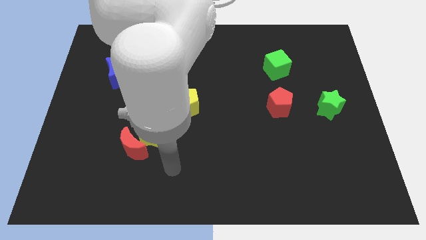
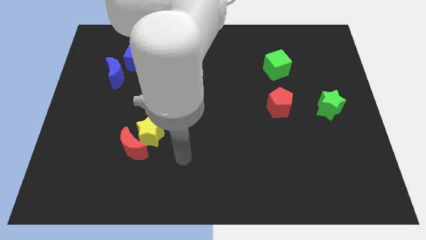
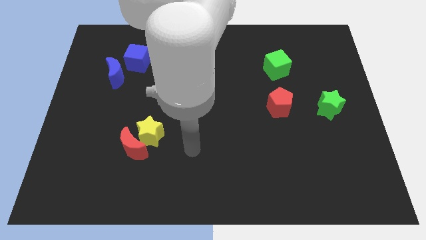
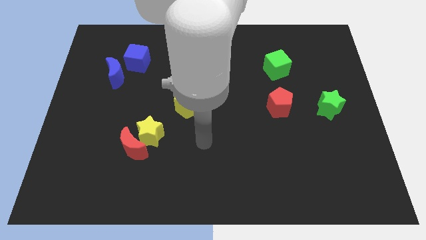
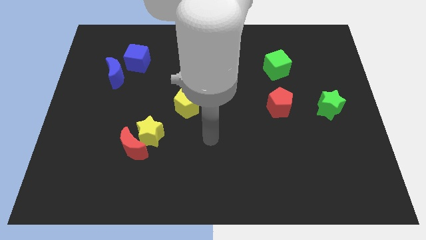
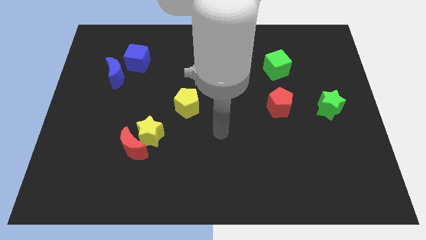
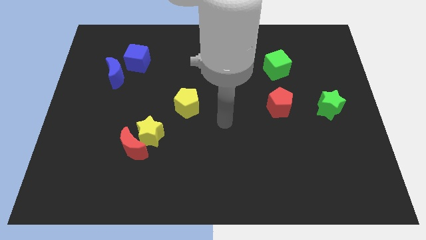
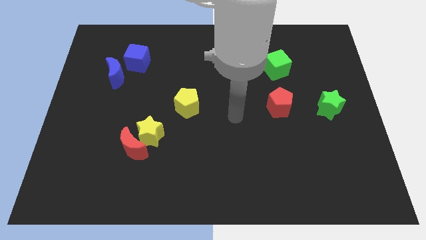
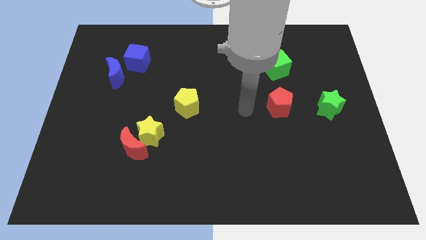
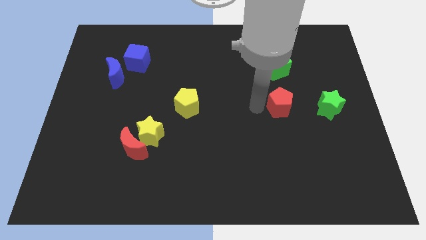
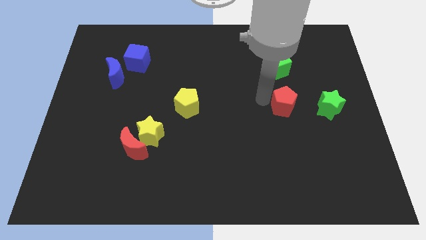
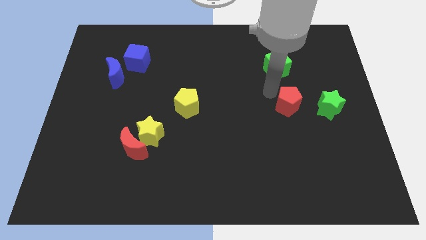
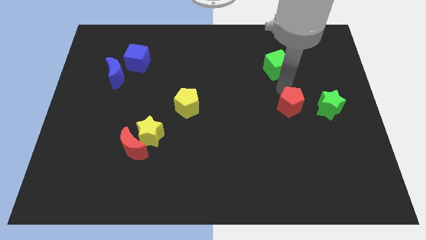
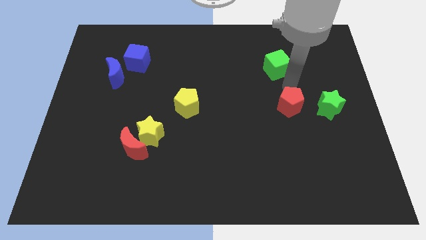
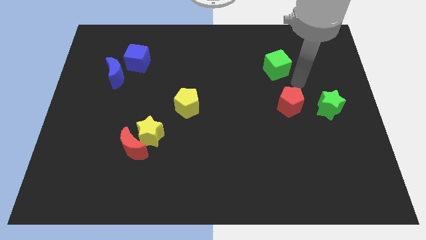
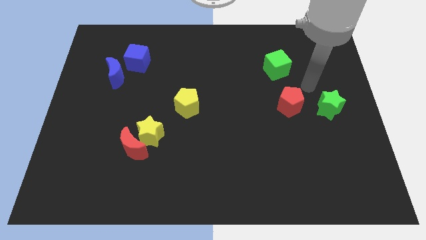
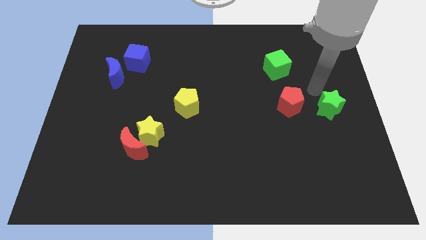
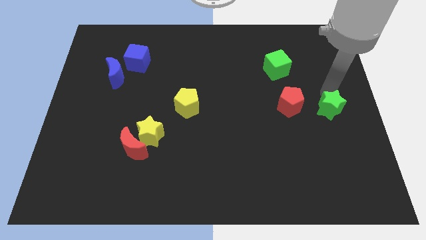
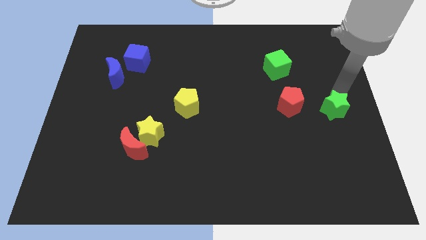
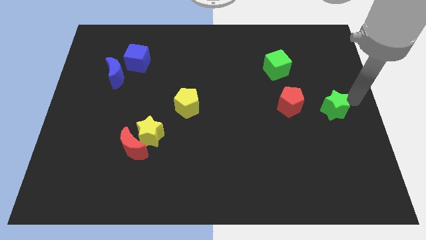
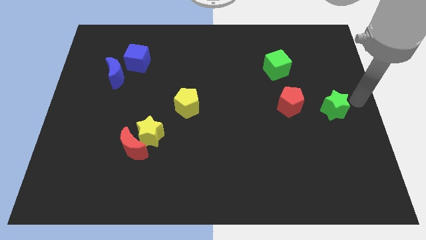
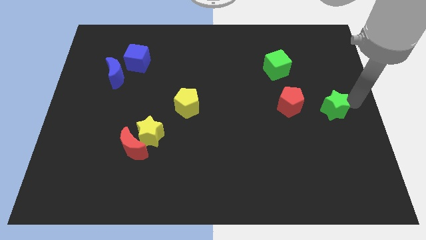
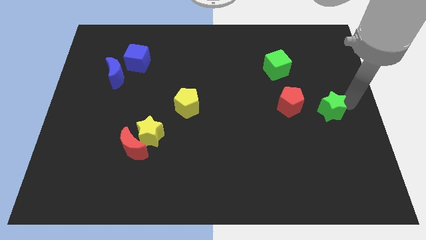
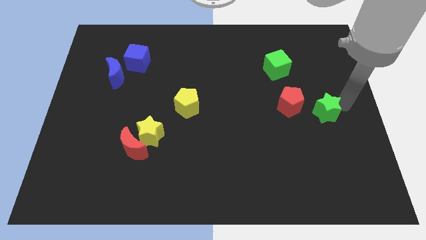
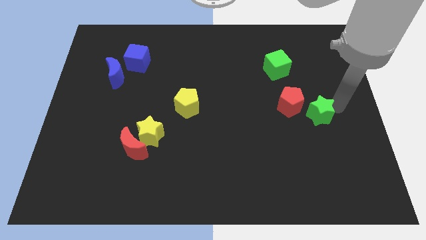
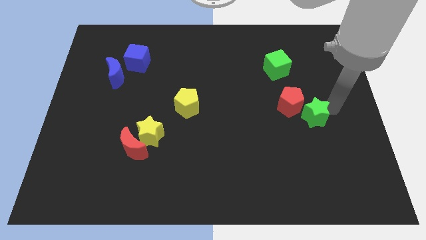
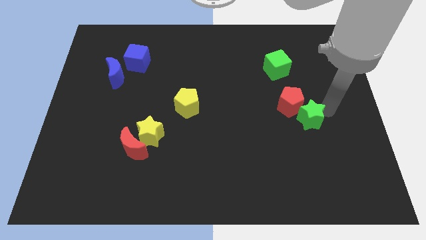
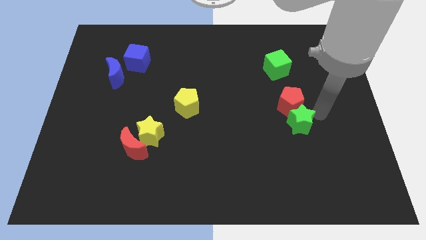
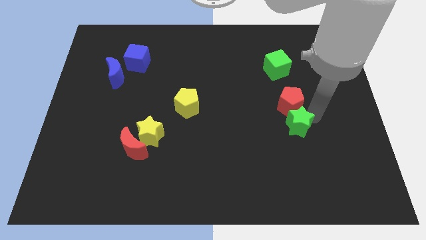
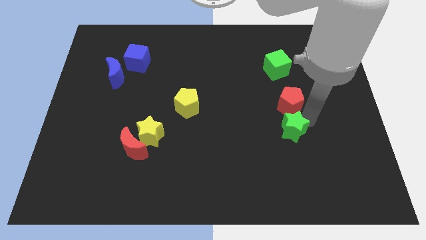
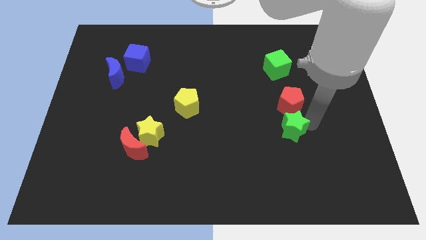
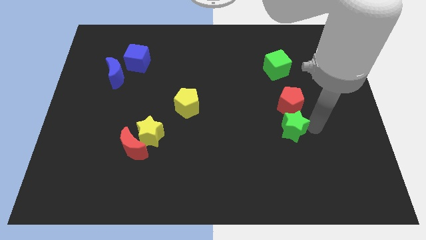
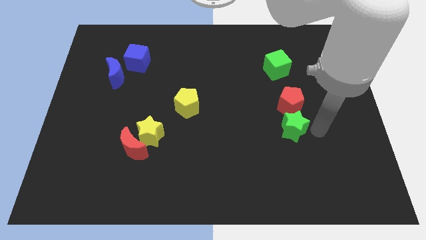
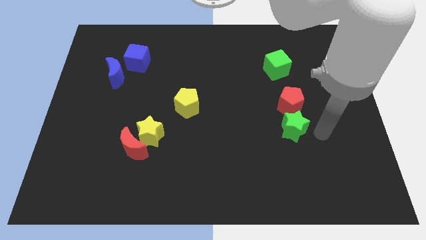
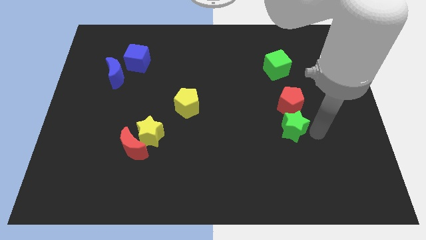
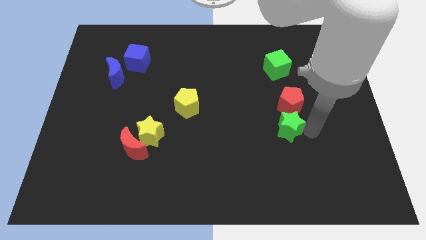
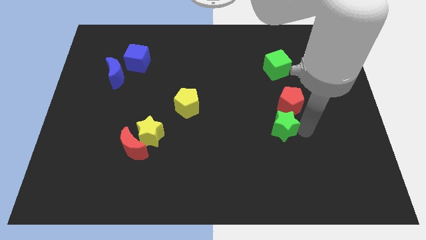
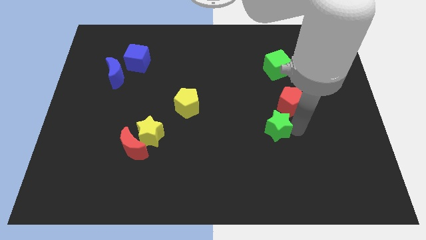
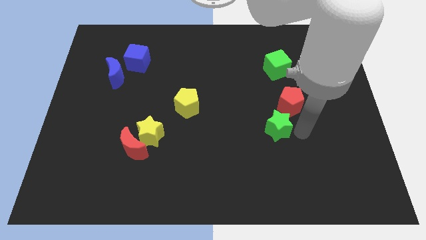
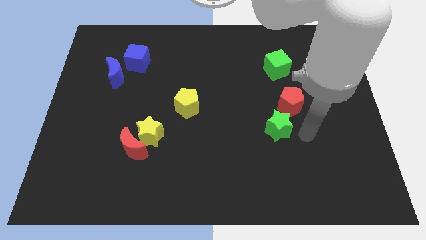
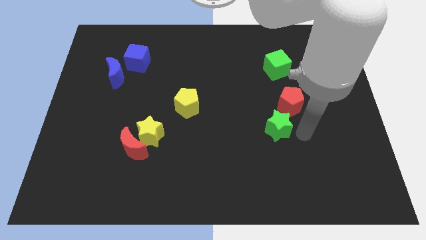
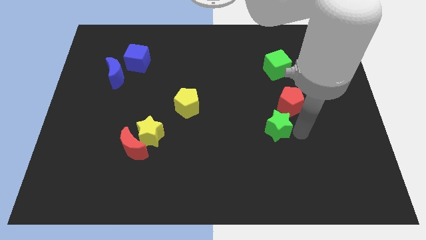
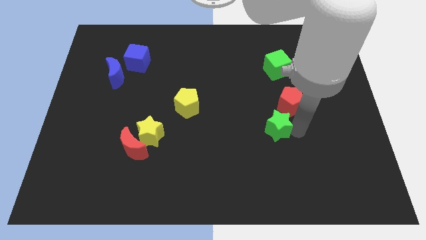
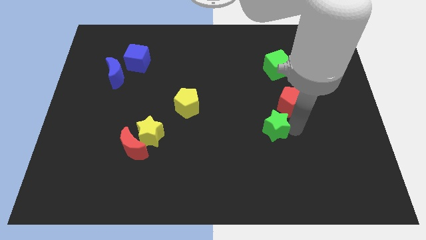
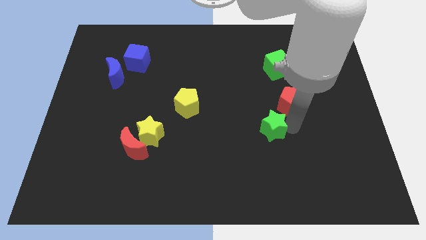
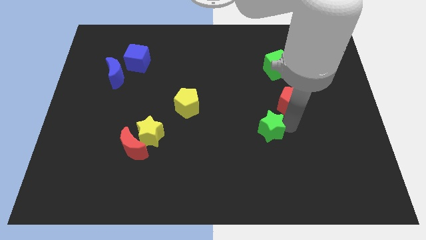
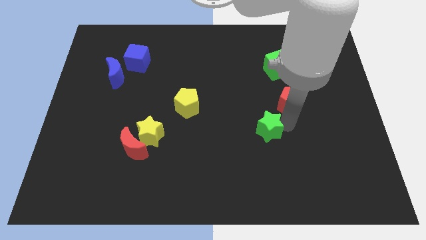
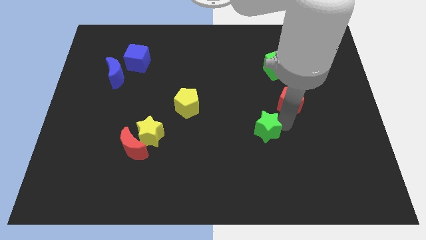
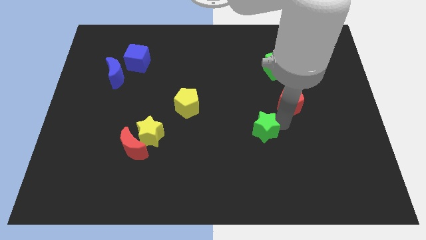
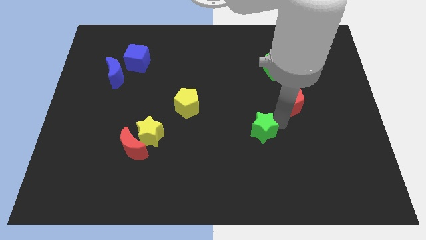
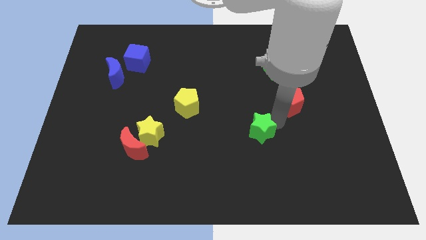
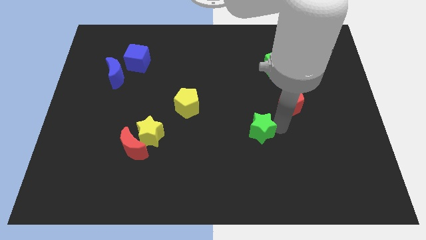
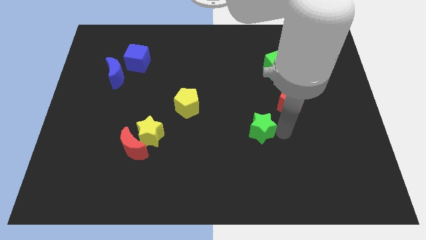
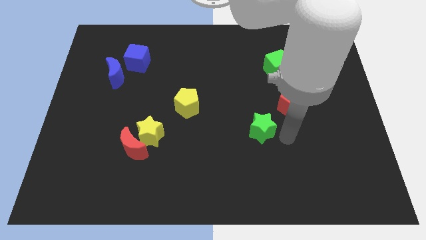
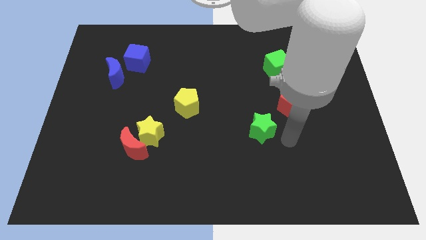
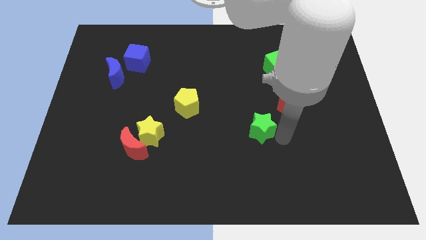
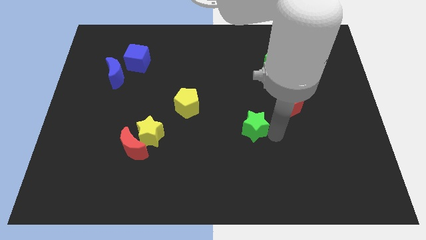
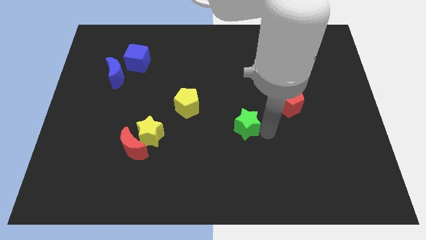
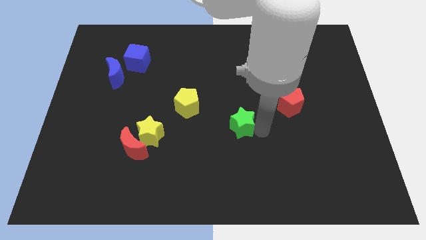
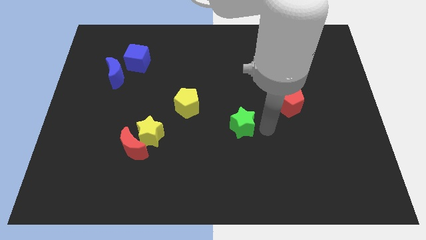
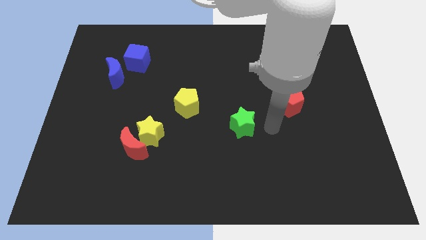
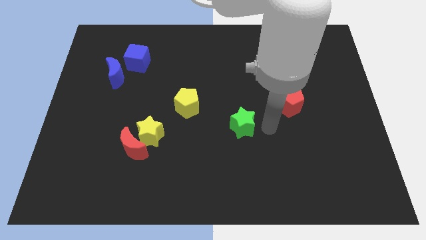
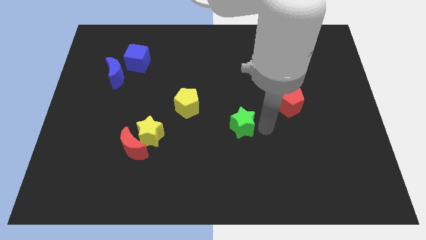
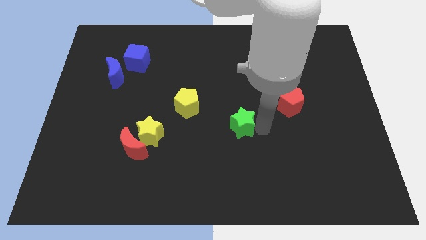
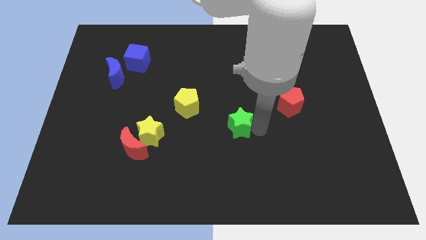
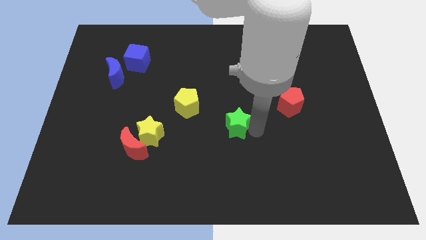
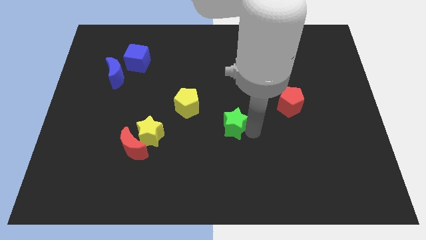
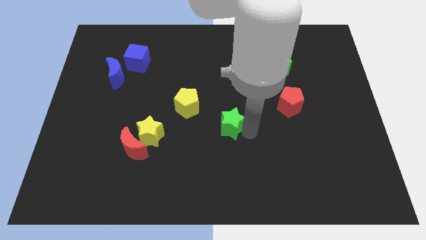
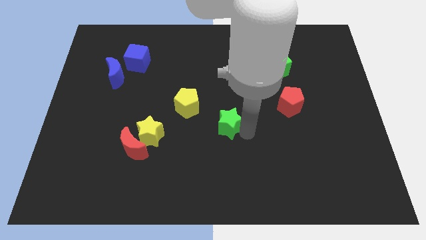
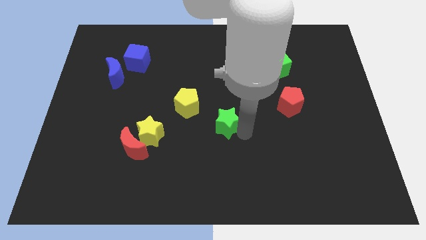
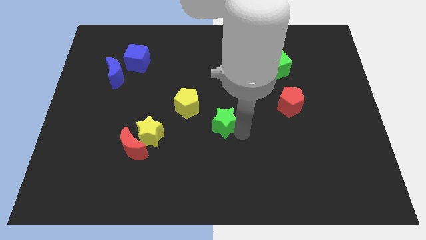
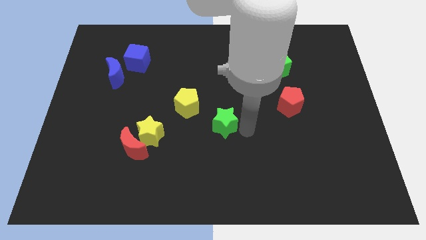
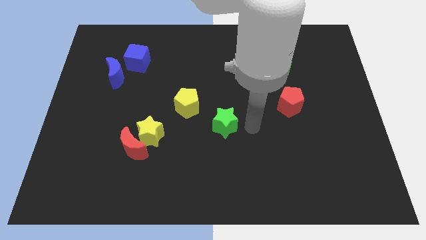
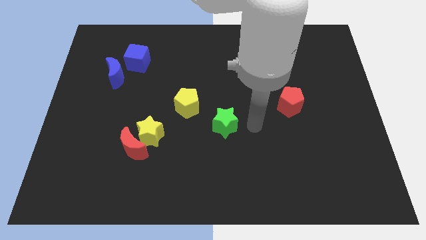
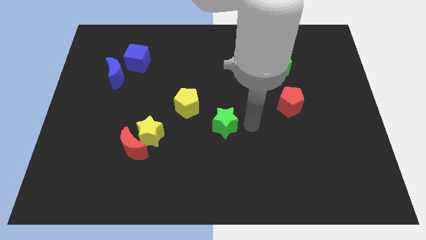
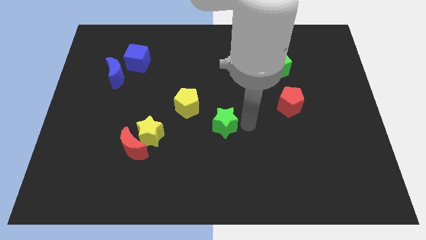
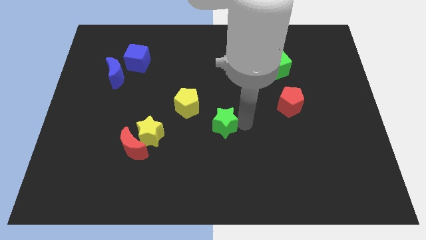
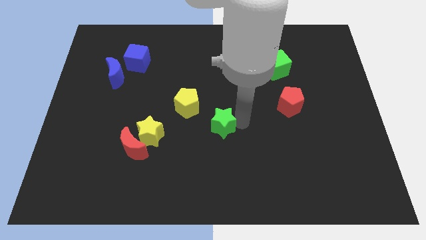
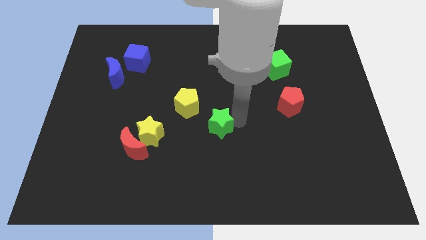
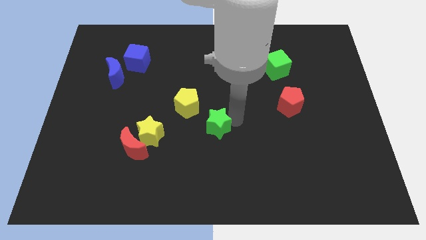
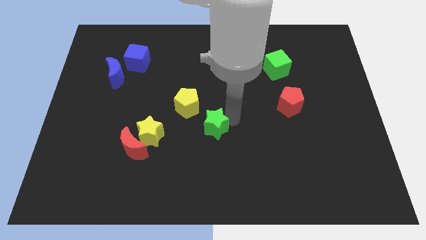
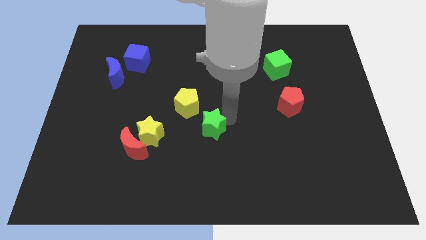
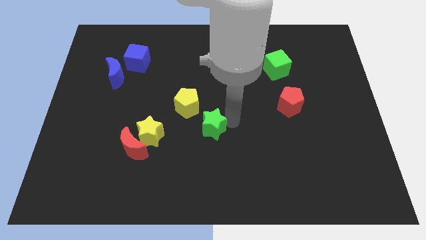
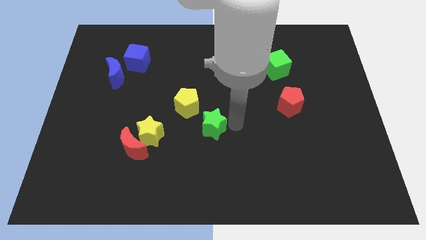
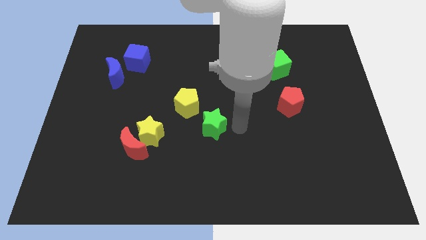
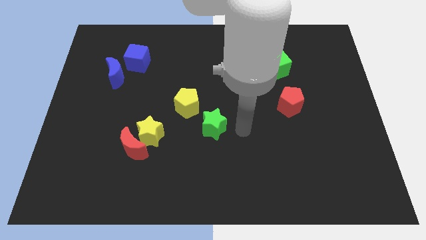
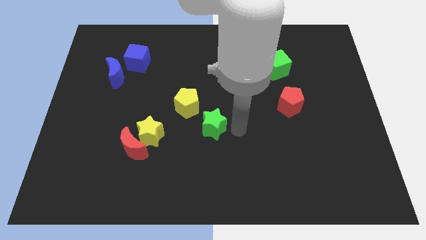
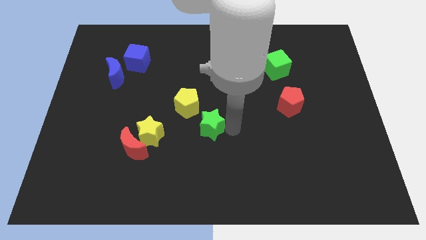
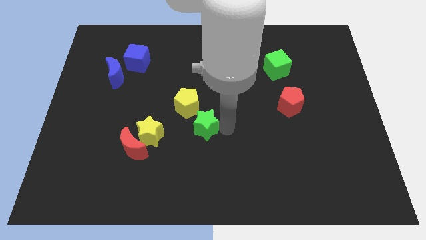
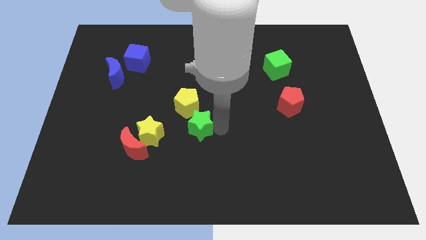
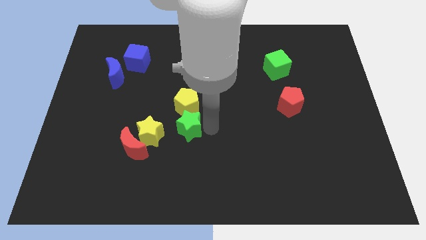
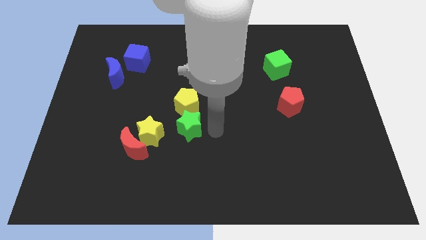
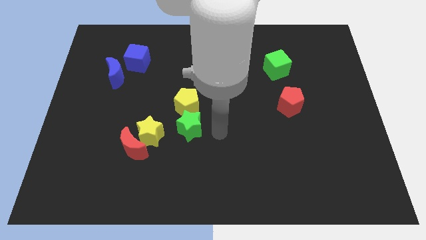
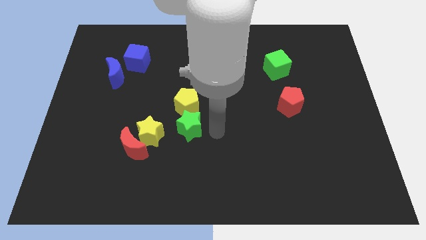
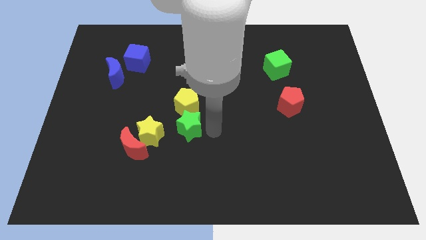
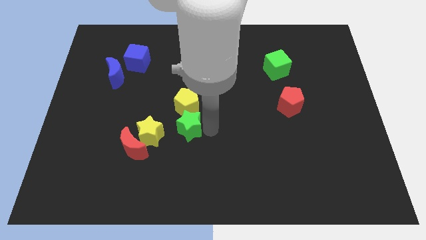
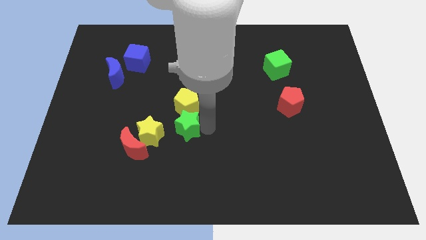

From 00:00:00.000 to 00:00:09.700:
push the green star to the bottom left side of the yellow pentagon
